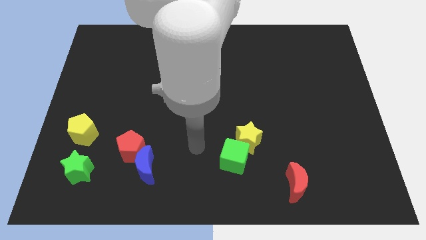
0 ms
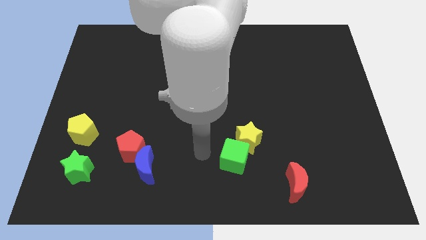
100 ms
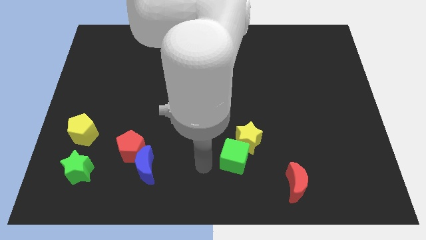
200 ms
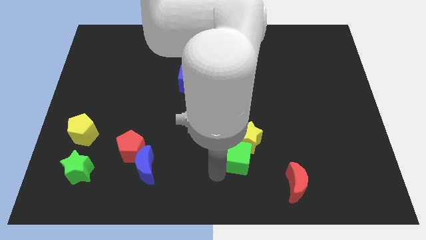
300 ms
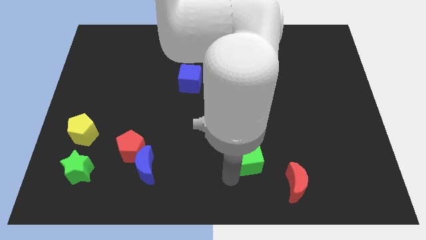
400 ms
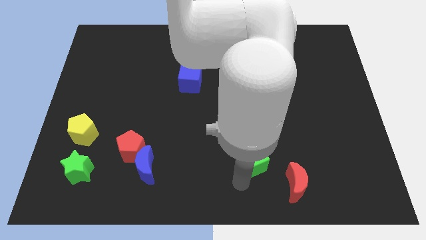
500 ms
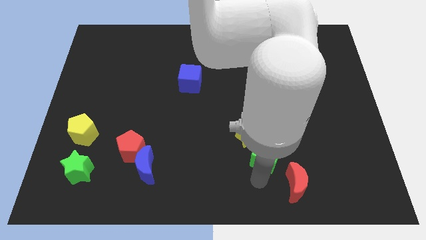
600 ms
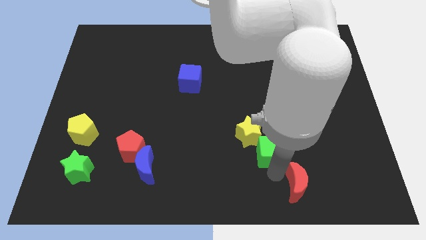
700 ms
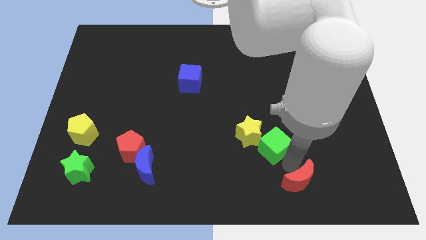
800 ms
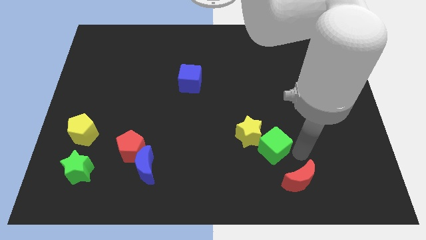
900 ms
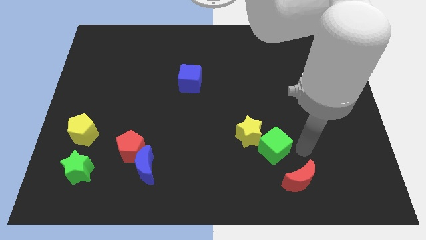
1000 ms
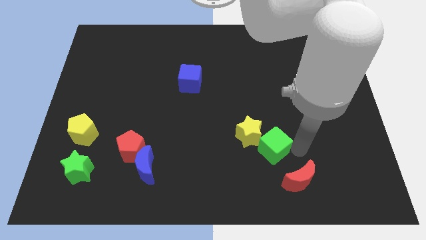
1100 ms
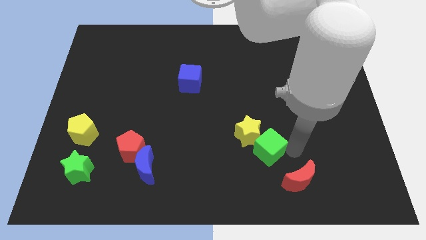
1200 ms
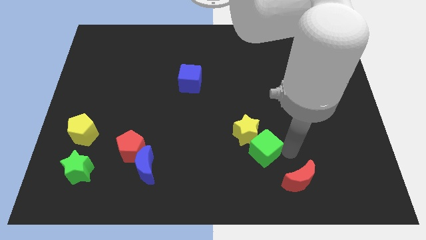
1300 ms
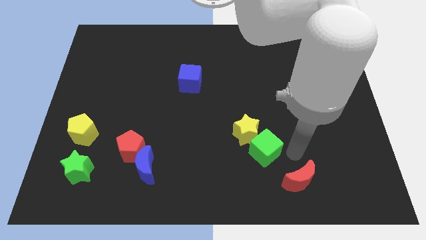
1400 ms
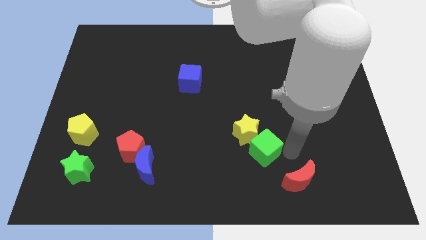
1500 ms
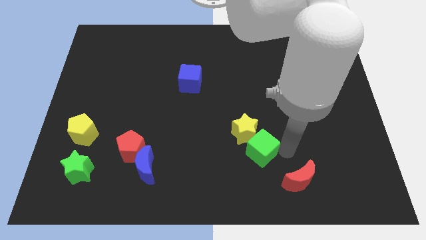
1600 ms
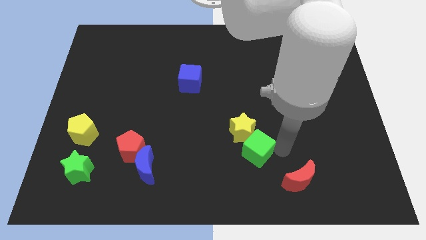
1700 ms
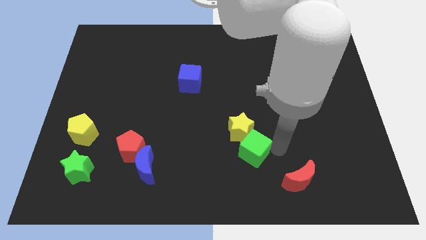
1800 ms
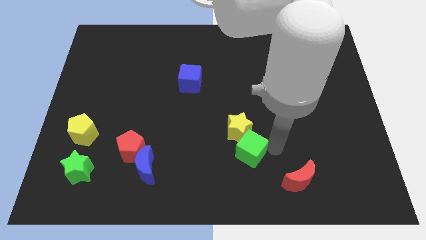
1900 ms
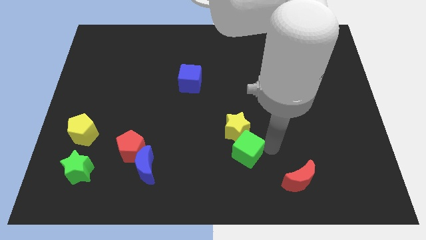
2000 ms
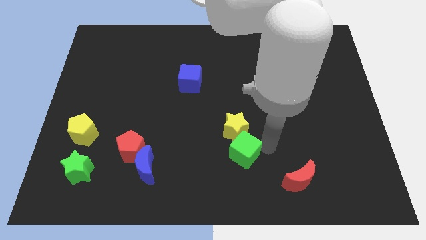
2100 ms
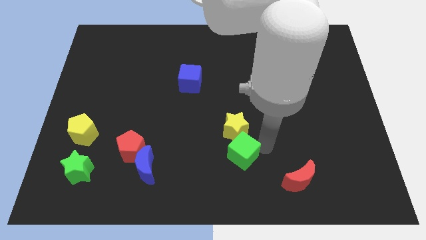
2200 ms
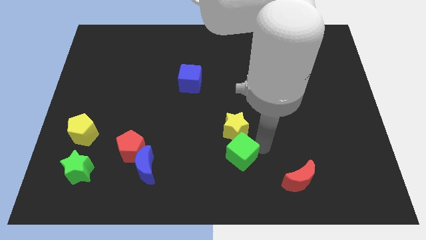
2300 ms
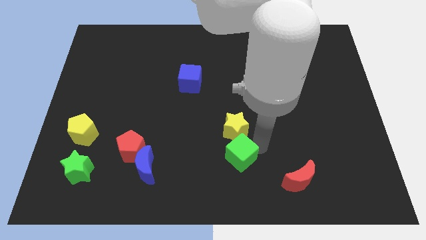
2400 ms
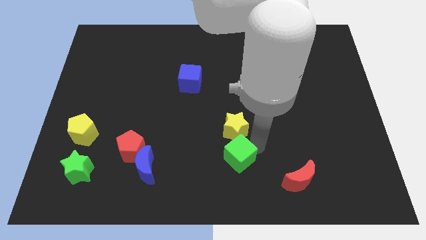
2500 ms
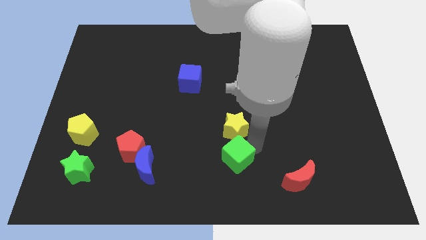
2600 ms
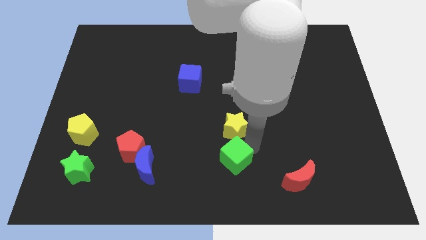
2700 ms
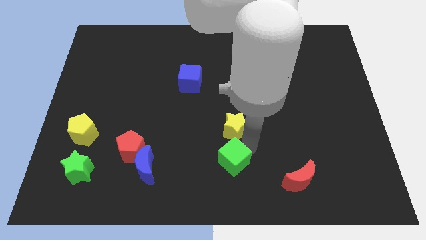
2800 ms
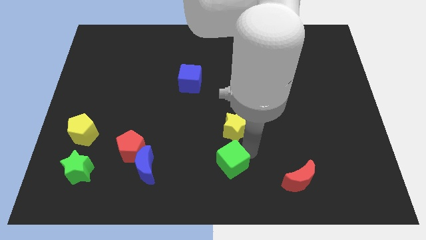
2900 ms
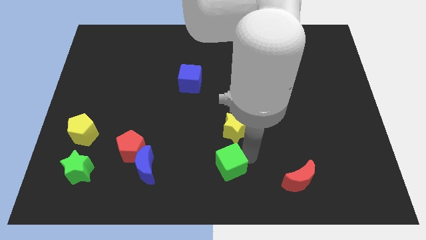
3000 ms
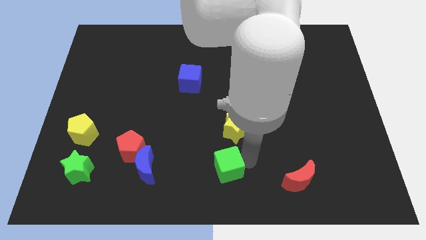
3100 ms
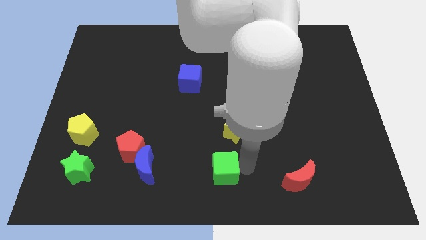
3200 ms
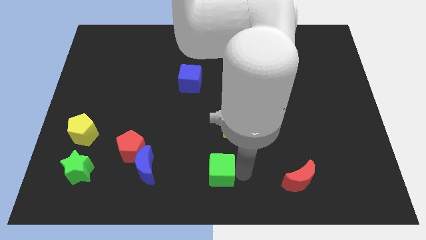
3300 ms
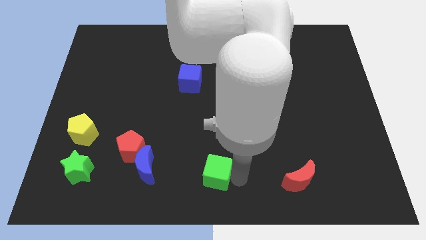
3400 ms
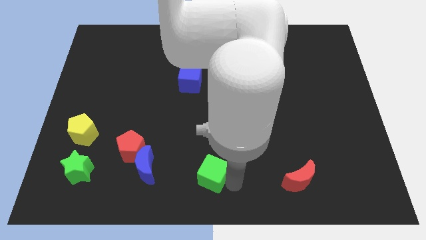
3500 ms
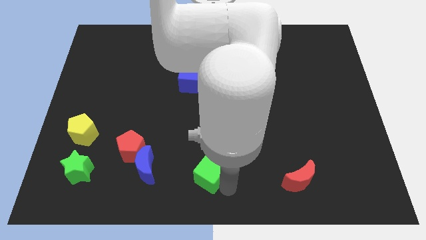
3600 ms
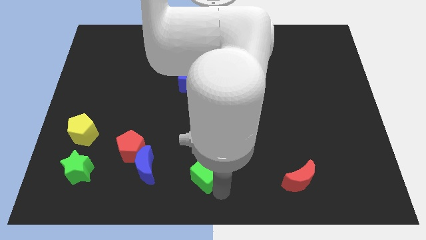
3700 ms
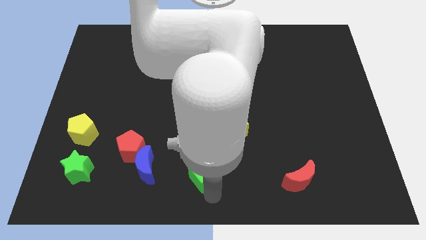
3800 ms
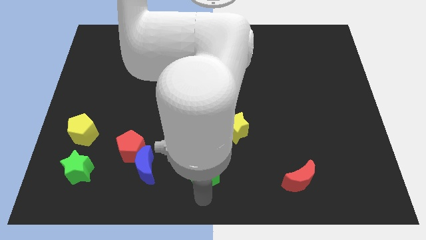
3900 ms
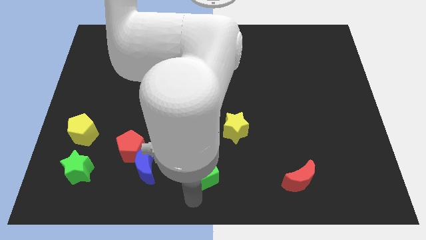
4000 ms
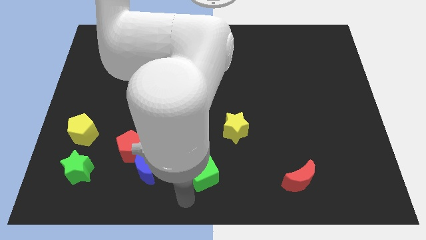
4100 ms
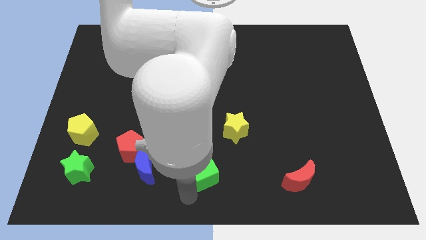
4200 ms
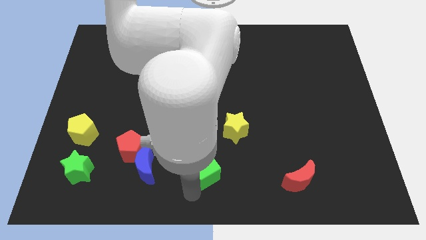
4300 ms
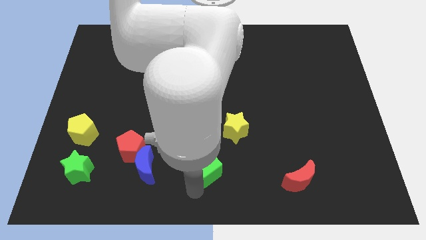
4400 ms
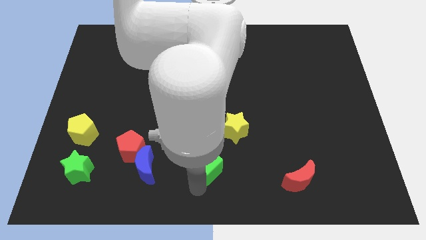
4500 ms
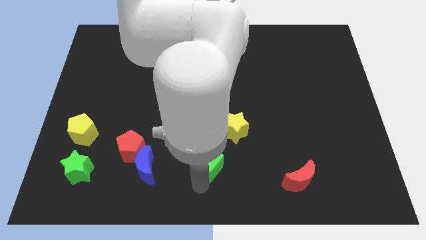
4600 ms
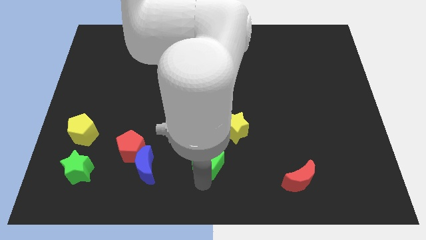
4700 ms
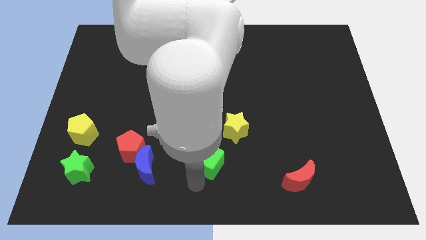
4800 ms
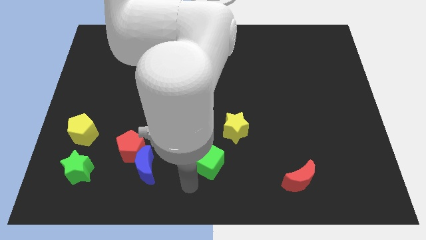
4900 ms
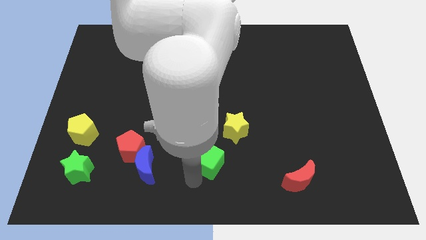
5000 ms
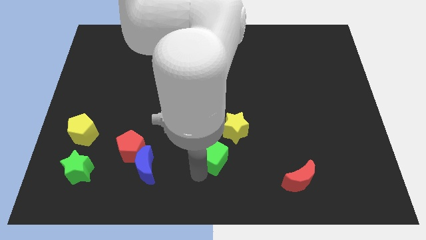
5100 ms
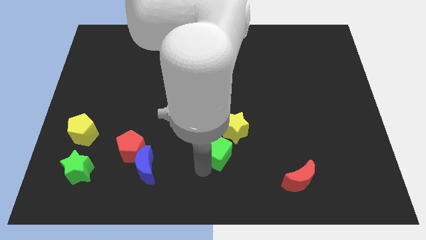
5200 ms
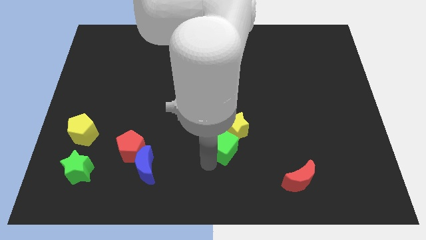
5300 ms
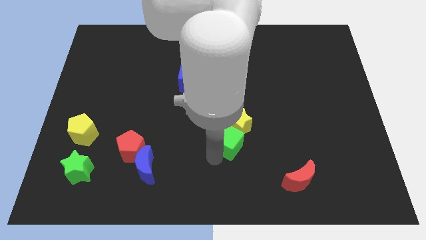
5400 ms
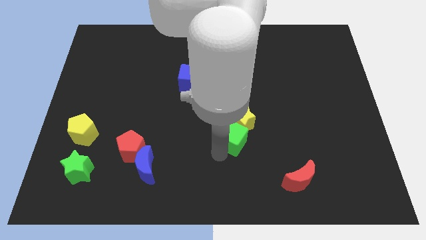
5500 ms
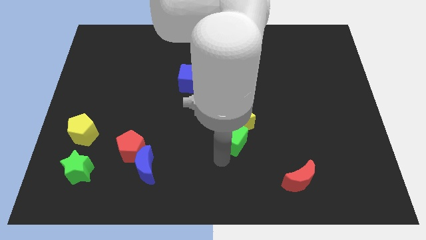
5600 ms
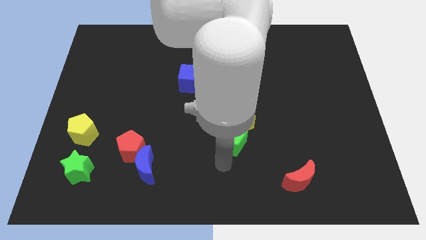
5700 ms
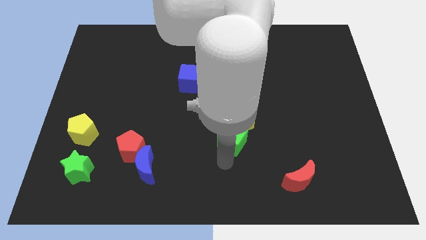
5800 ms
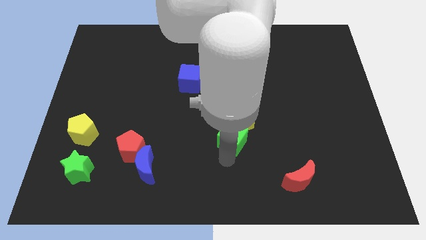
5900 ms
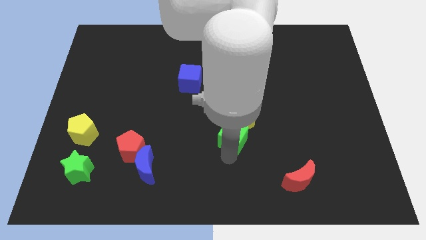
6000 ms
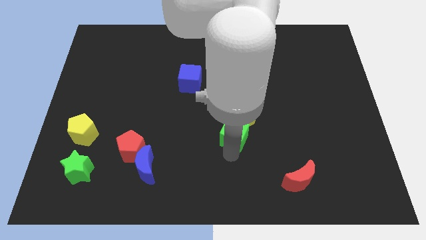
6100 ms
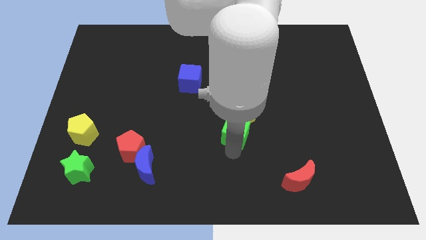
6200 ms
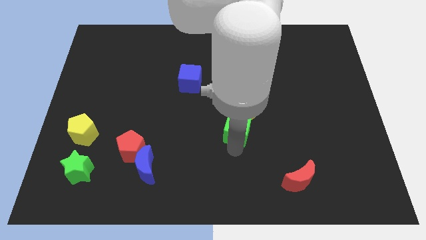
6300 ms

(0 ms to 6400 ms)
move the green cube slightly upwards

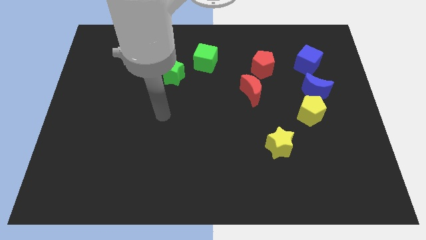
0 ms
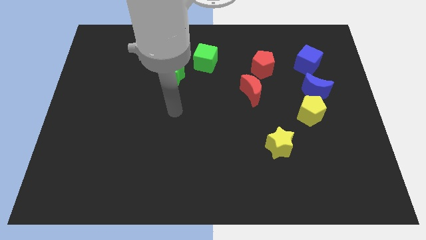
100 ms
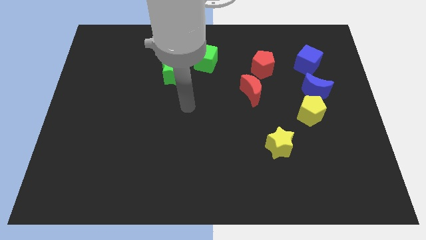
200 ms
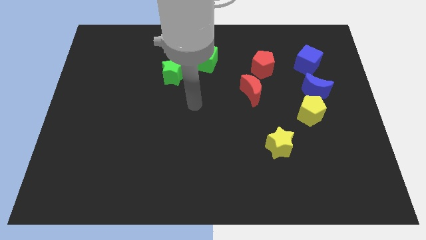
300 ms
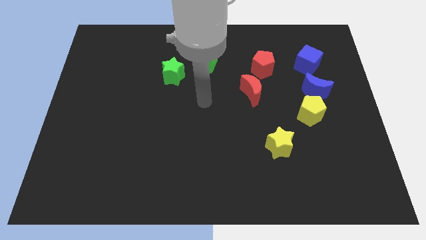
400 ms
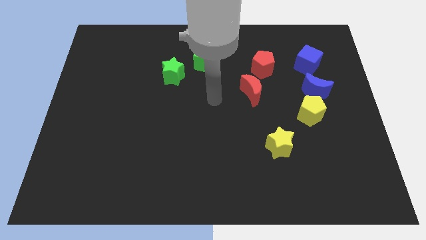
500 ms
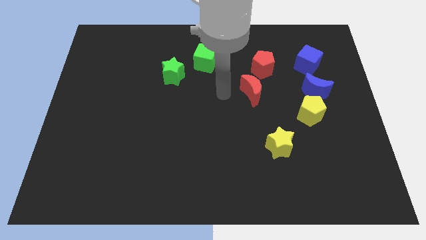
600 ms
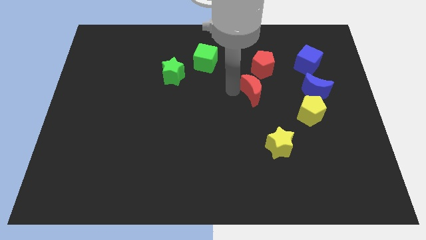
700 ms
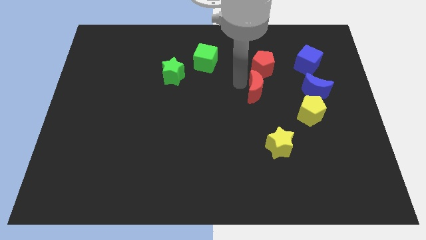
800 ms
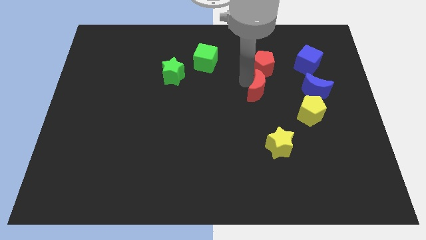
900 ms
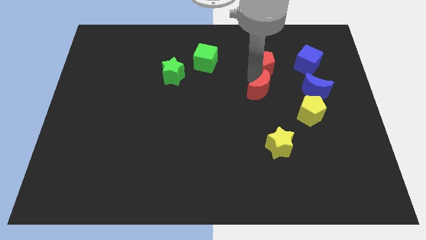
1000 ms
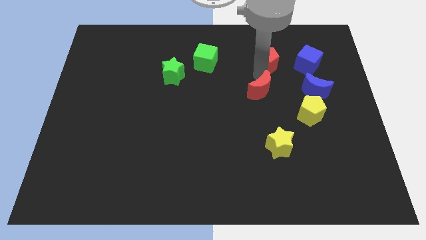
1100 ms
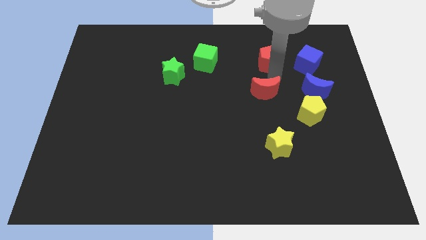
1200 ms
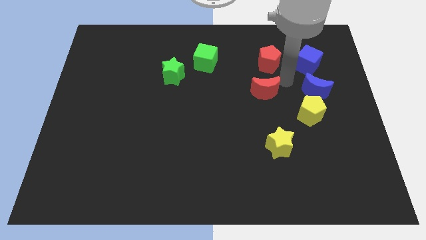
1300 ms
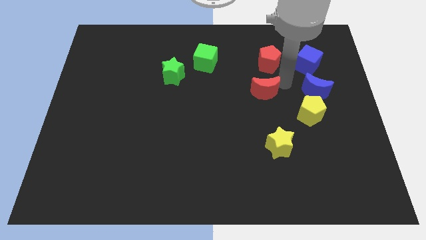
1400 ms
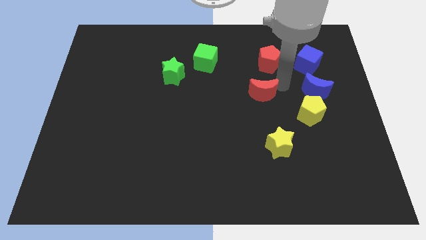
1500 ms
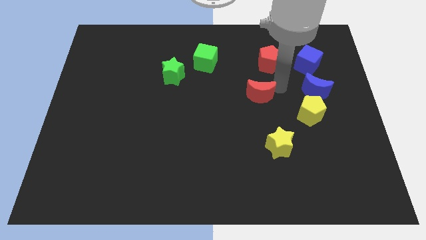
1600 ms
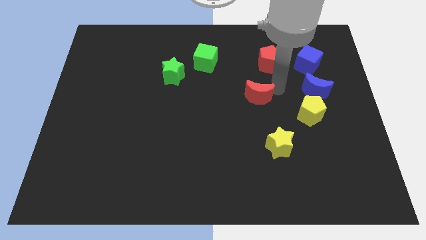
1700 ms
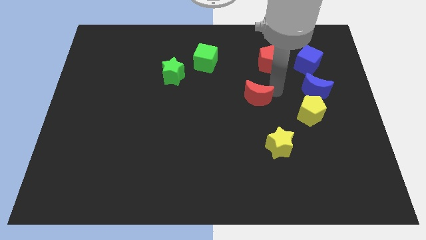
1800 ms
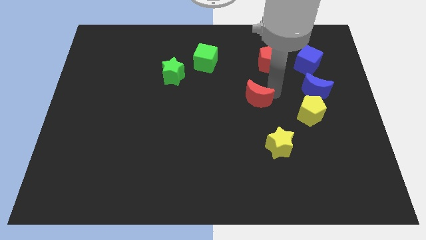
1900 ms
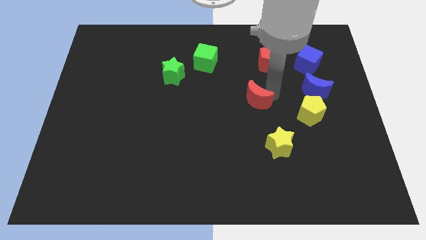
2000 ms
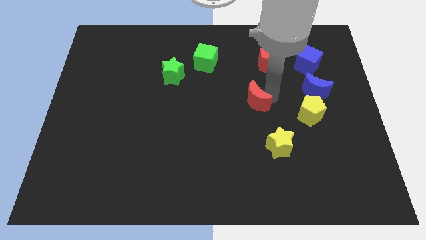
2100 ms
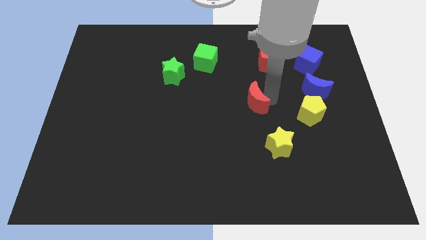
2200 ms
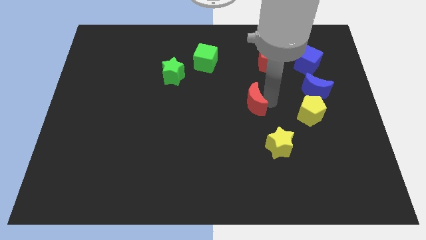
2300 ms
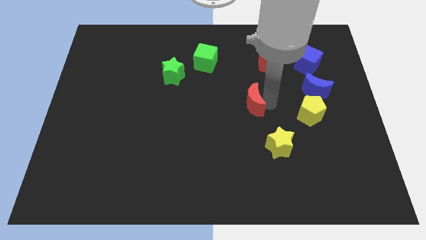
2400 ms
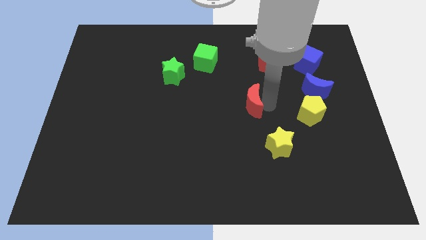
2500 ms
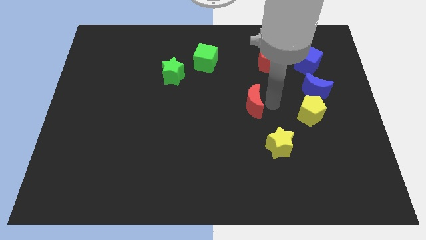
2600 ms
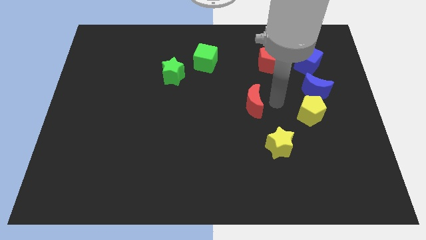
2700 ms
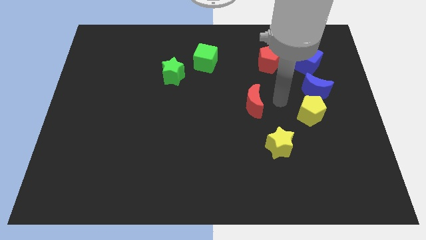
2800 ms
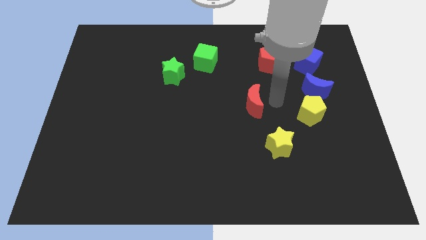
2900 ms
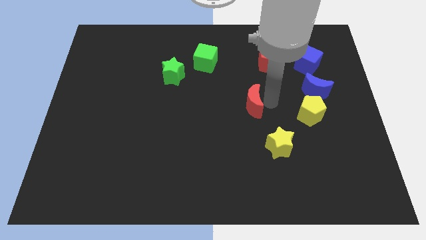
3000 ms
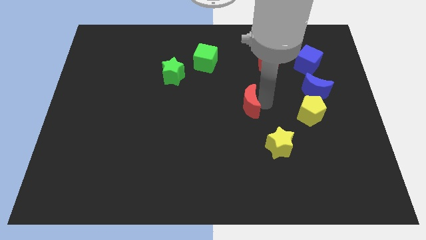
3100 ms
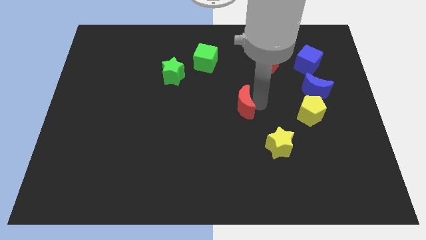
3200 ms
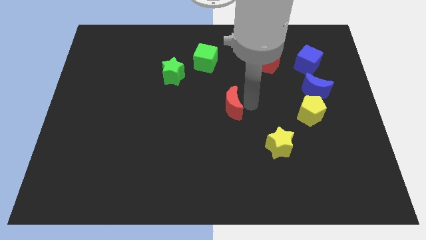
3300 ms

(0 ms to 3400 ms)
push the red moon down and left a little bit
